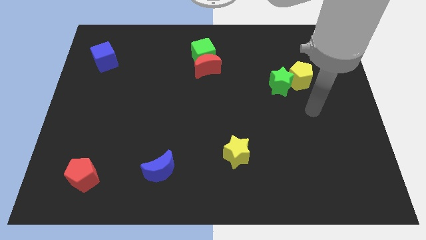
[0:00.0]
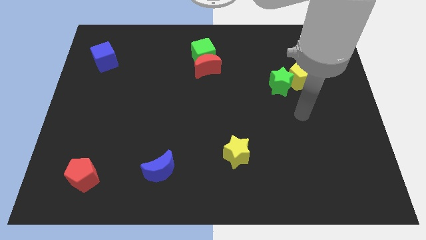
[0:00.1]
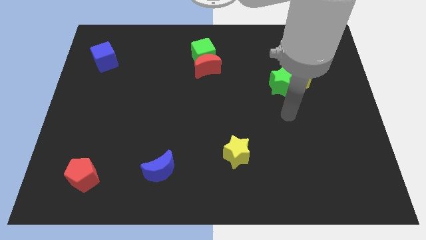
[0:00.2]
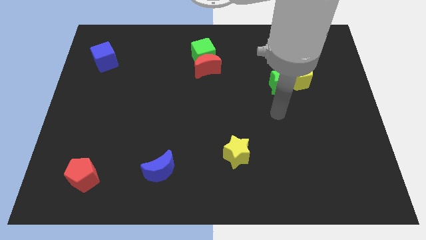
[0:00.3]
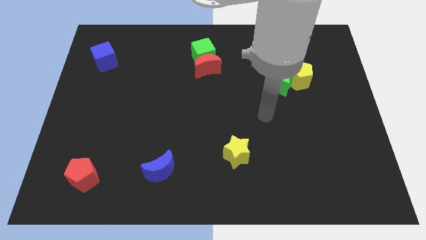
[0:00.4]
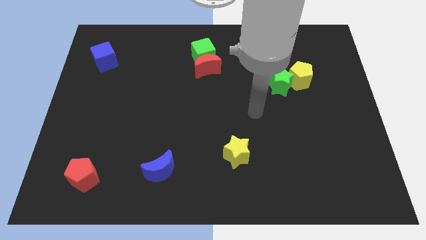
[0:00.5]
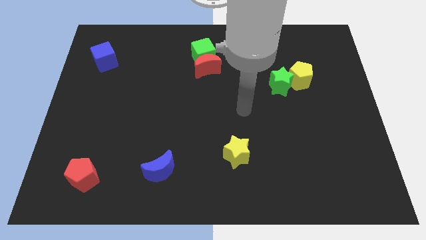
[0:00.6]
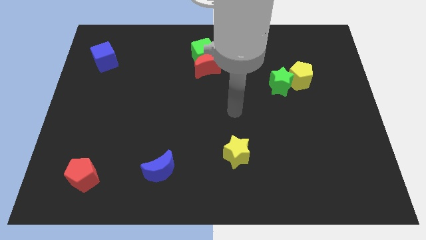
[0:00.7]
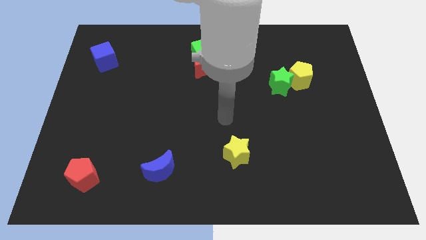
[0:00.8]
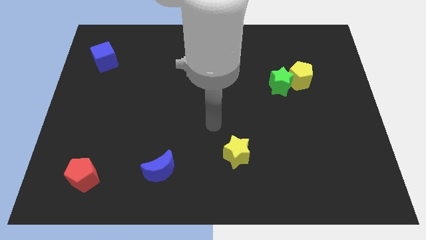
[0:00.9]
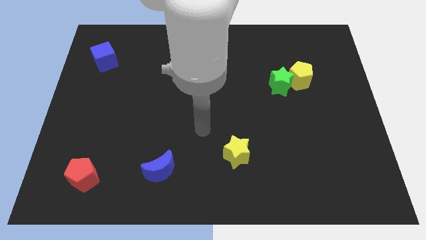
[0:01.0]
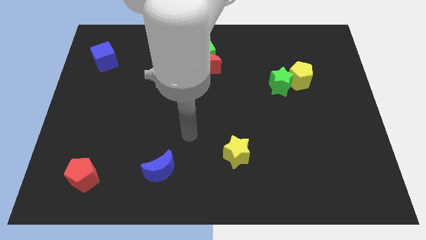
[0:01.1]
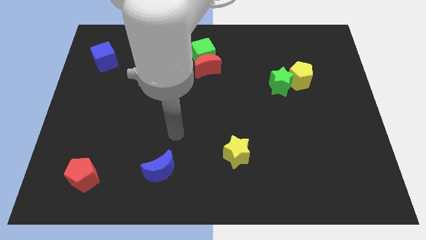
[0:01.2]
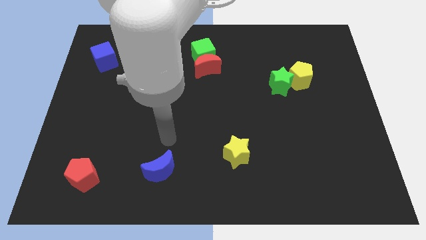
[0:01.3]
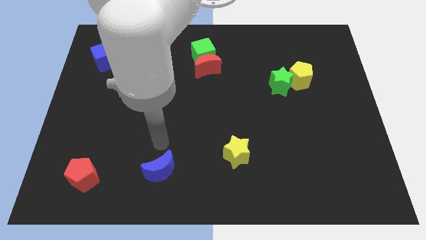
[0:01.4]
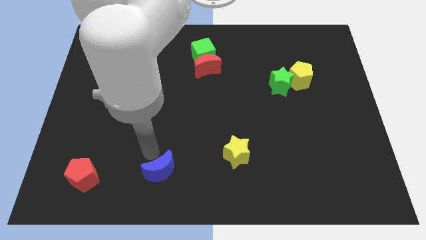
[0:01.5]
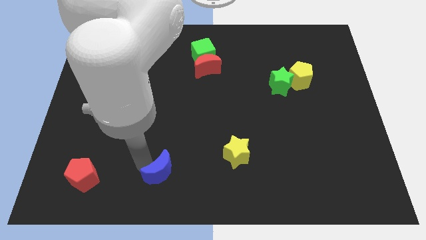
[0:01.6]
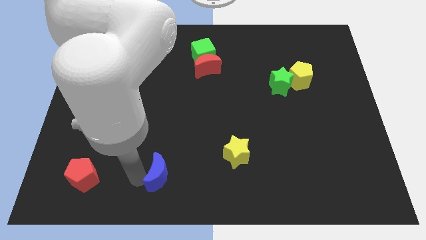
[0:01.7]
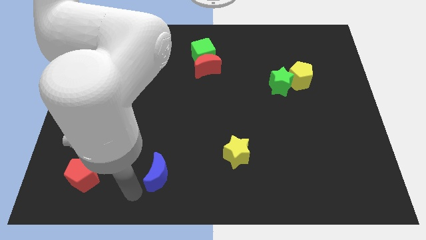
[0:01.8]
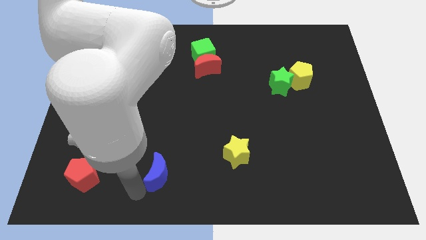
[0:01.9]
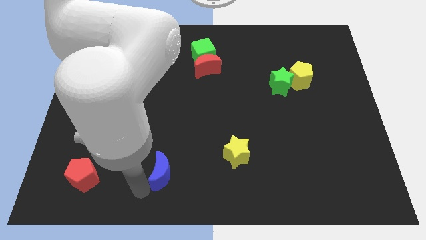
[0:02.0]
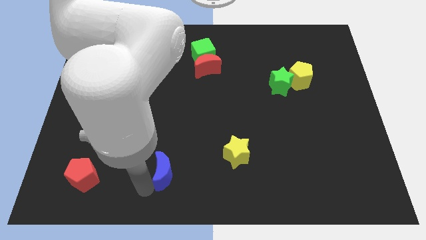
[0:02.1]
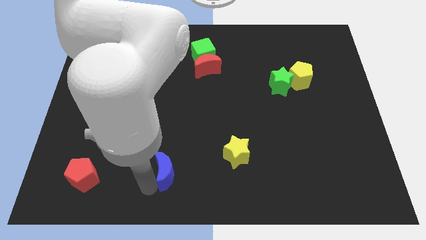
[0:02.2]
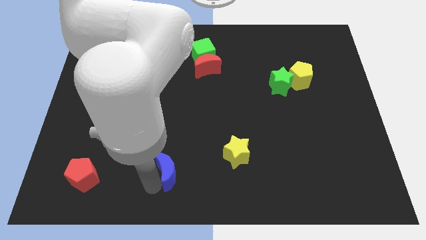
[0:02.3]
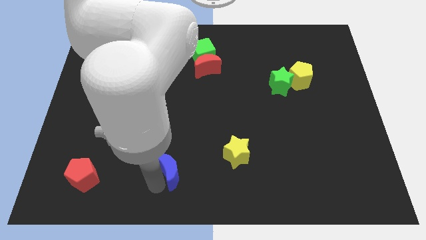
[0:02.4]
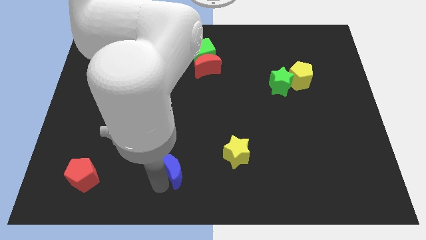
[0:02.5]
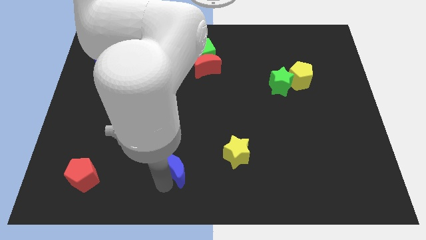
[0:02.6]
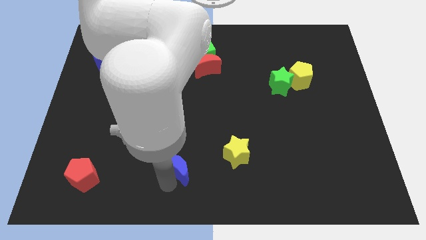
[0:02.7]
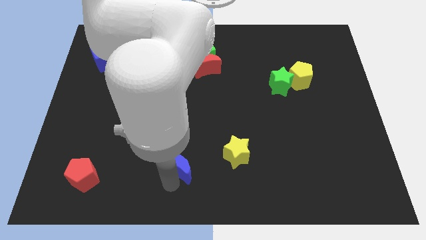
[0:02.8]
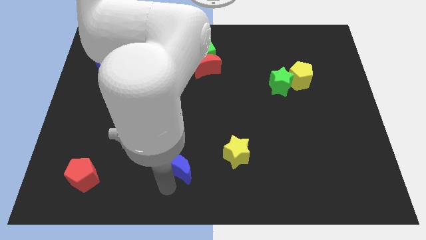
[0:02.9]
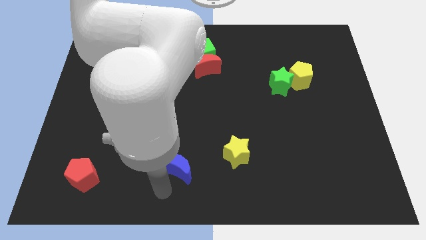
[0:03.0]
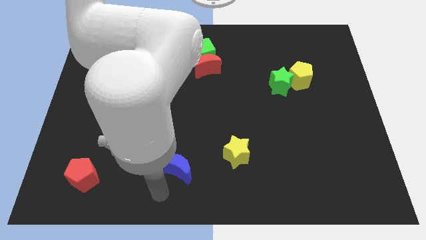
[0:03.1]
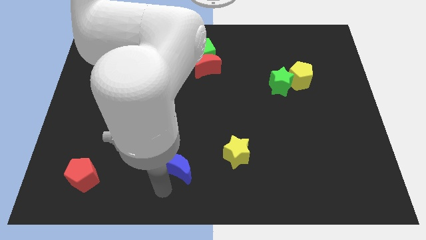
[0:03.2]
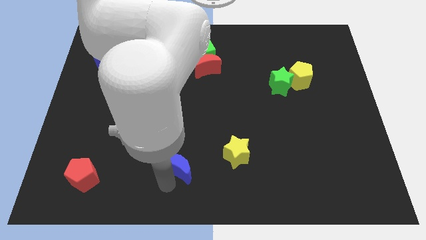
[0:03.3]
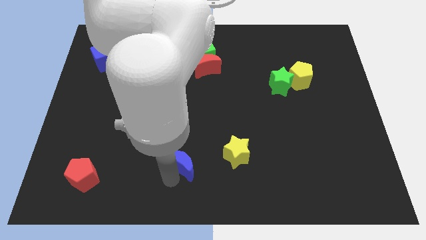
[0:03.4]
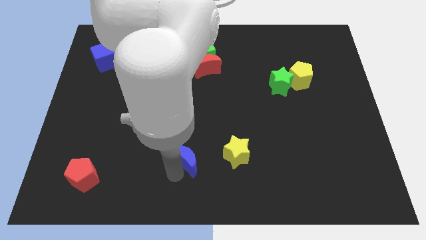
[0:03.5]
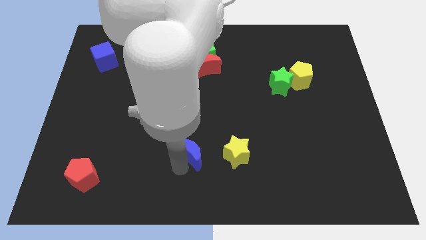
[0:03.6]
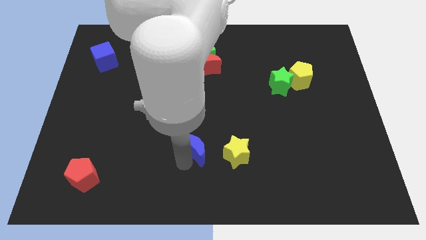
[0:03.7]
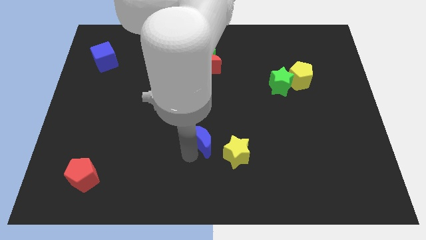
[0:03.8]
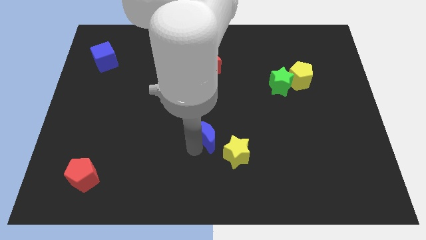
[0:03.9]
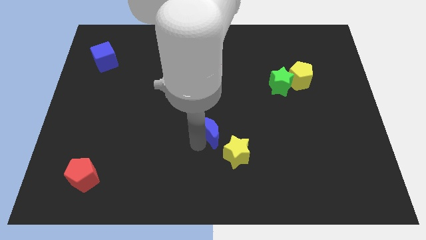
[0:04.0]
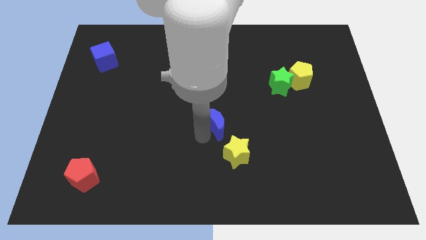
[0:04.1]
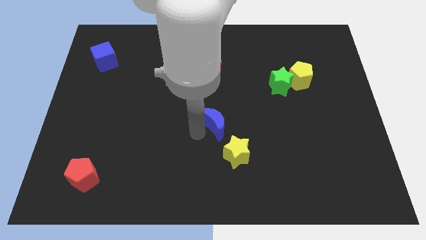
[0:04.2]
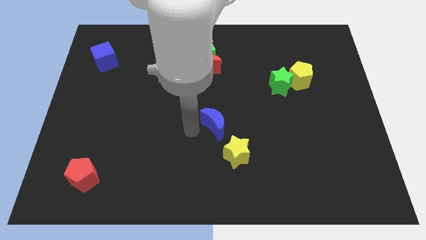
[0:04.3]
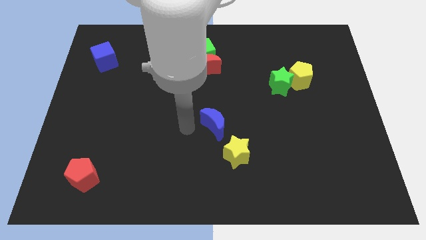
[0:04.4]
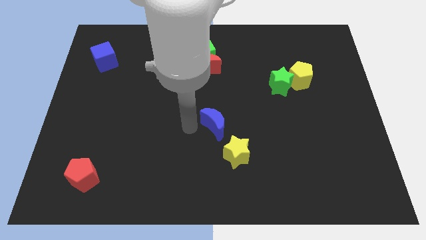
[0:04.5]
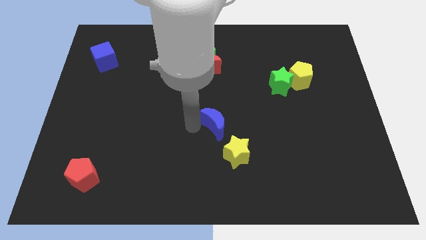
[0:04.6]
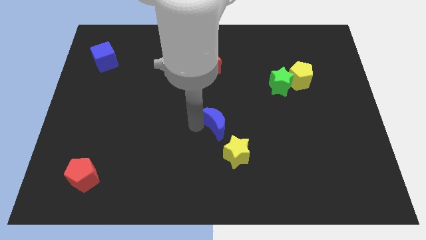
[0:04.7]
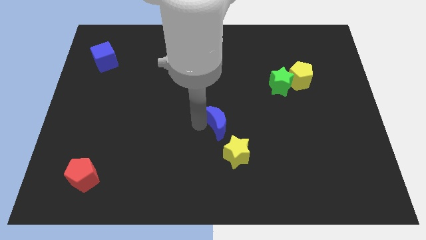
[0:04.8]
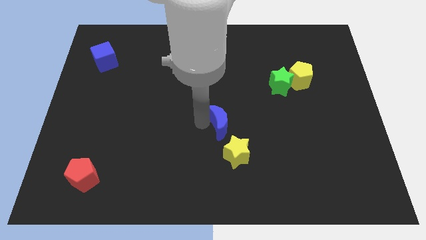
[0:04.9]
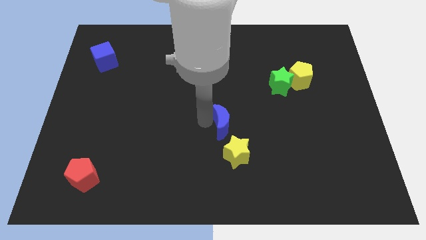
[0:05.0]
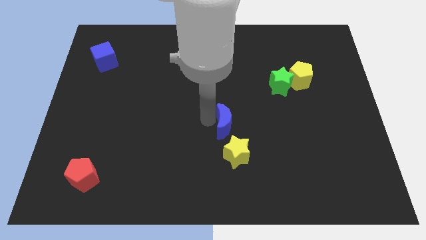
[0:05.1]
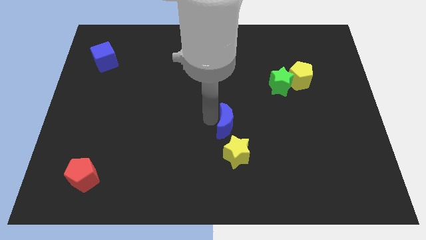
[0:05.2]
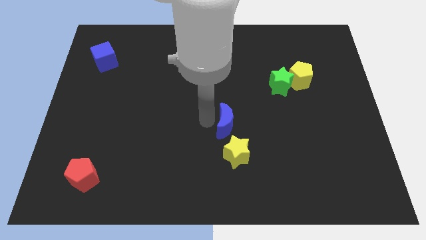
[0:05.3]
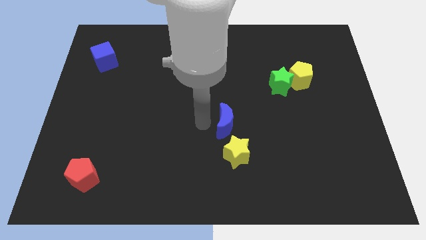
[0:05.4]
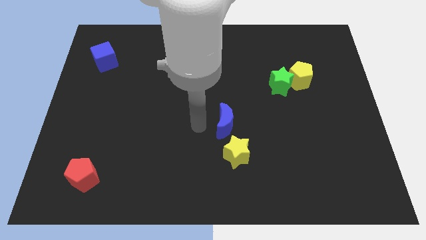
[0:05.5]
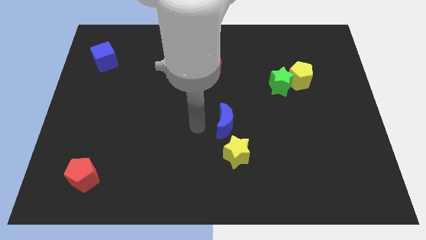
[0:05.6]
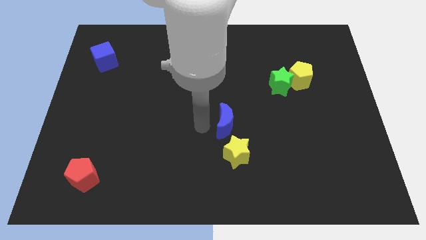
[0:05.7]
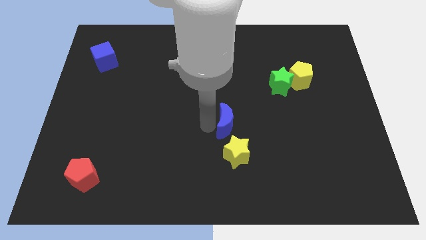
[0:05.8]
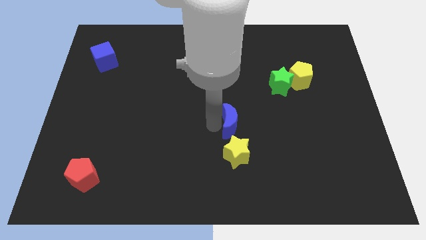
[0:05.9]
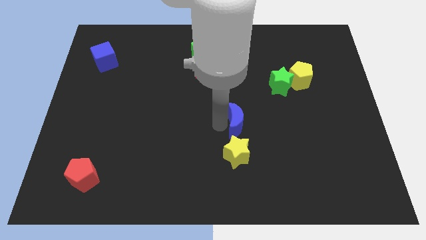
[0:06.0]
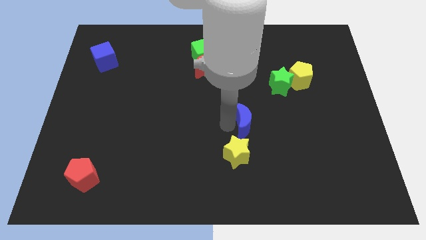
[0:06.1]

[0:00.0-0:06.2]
move the blue moon upwards and then to the right

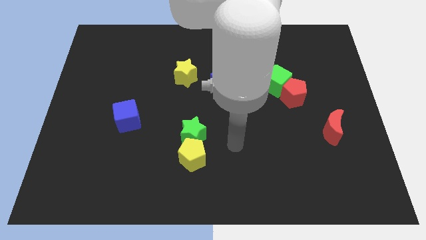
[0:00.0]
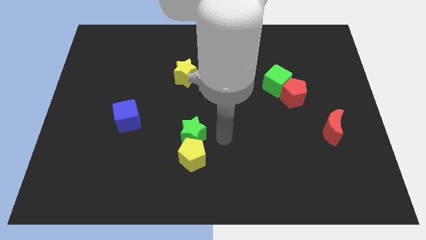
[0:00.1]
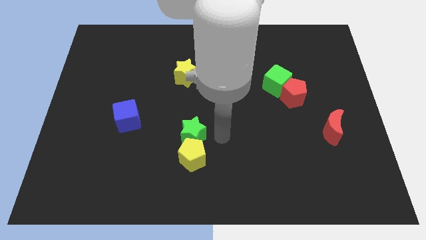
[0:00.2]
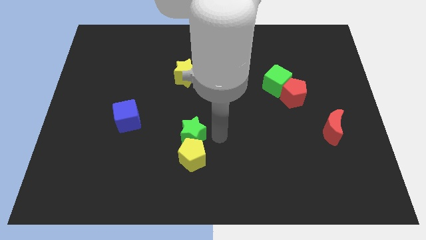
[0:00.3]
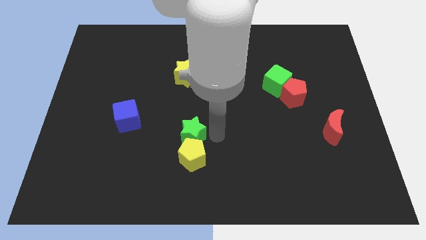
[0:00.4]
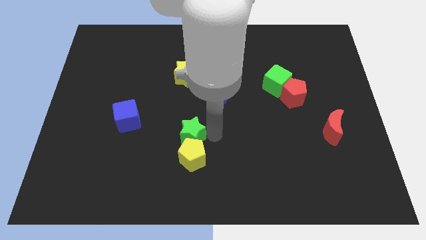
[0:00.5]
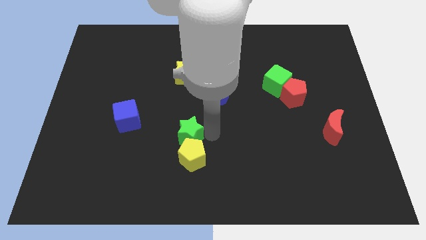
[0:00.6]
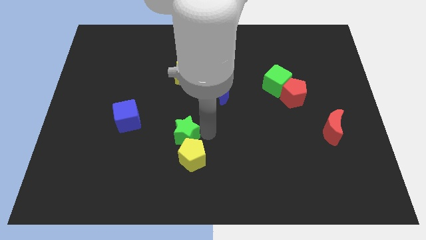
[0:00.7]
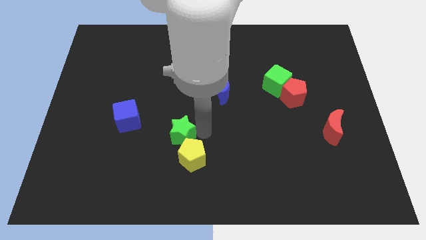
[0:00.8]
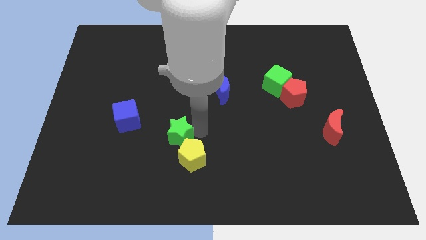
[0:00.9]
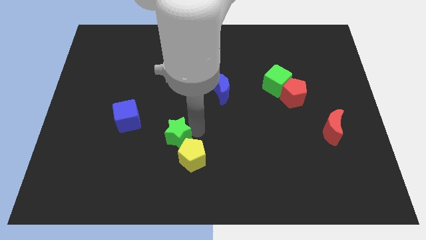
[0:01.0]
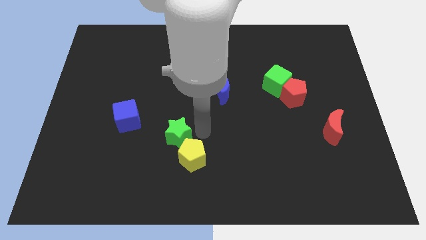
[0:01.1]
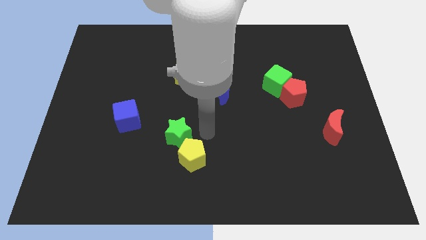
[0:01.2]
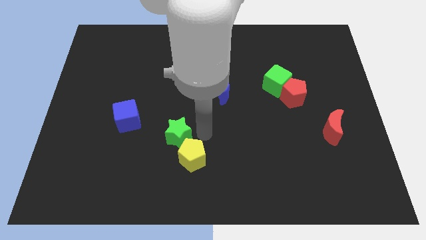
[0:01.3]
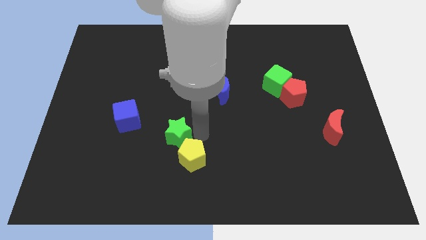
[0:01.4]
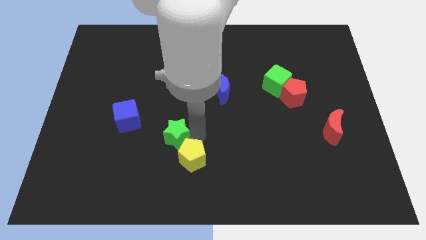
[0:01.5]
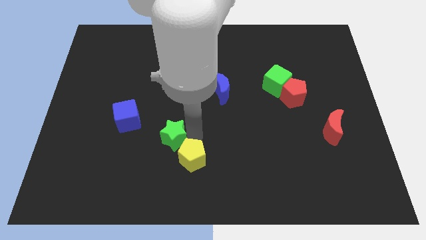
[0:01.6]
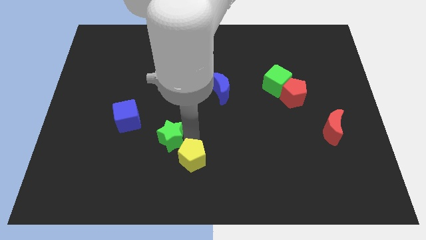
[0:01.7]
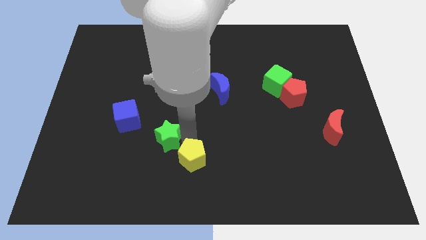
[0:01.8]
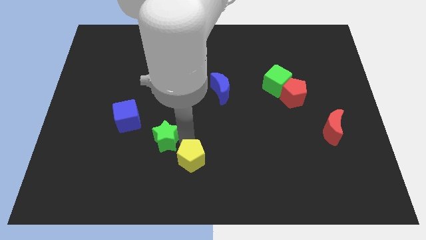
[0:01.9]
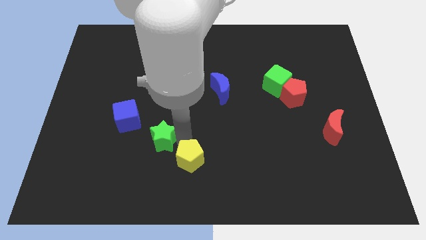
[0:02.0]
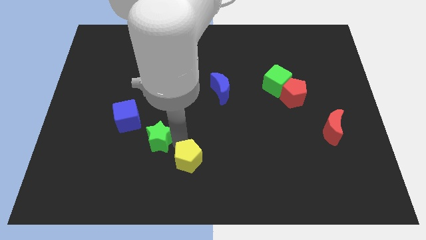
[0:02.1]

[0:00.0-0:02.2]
slide the green star to the left a little
